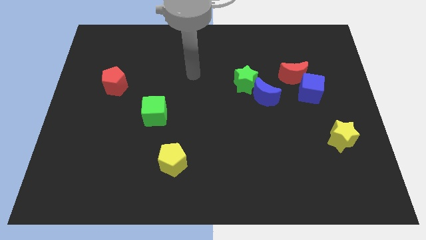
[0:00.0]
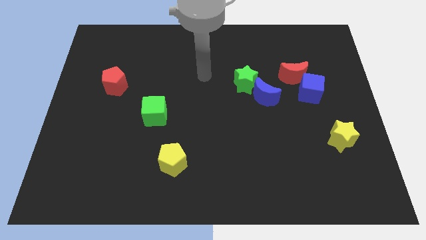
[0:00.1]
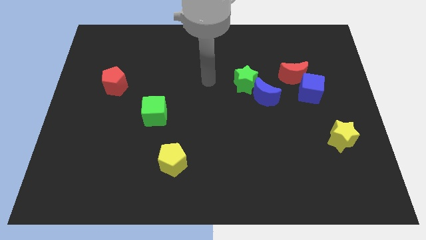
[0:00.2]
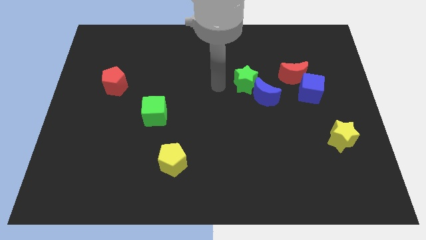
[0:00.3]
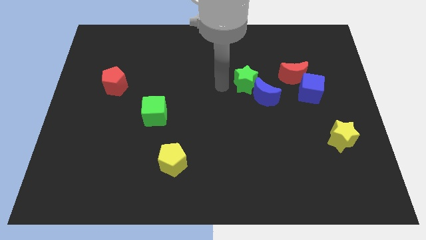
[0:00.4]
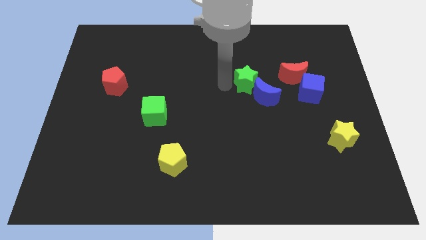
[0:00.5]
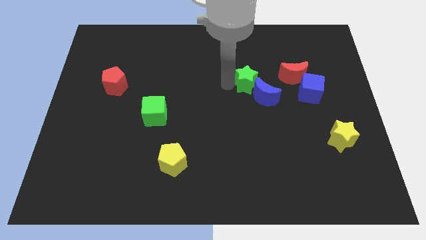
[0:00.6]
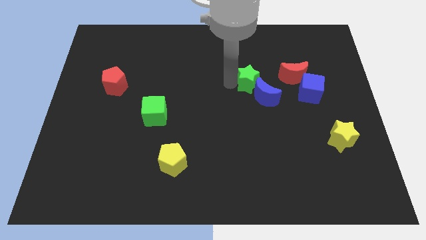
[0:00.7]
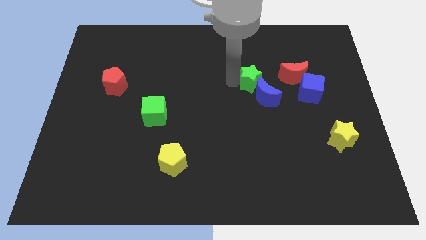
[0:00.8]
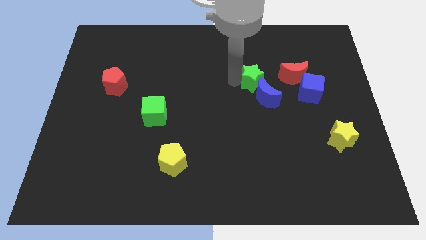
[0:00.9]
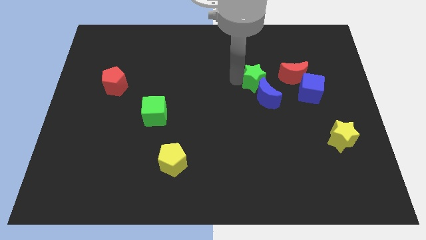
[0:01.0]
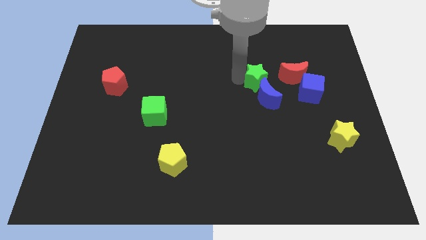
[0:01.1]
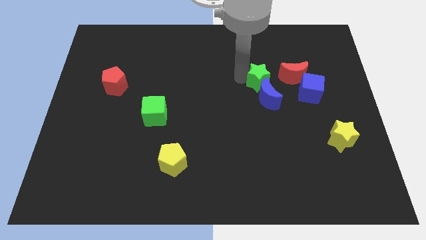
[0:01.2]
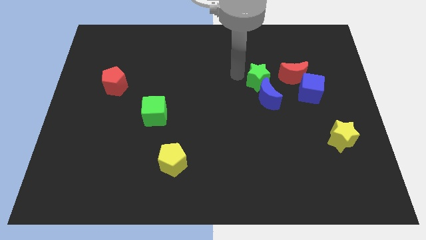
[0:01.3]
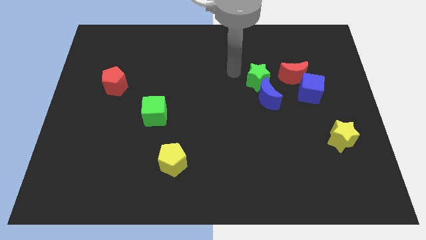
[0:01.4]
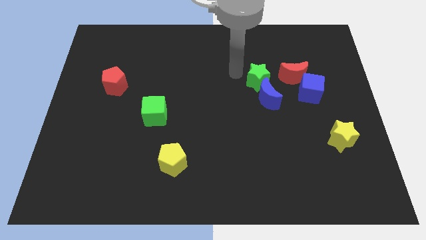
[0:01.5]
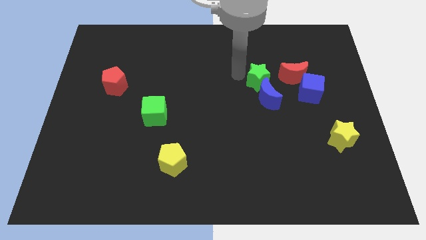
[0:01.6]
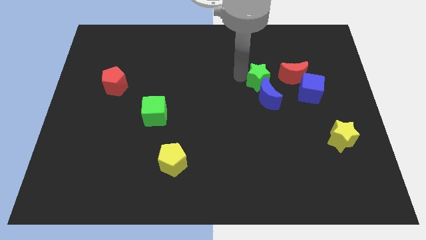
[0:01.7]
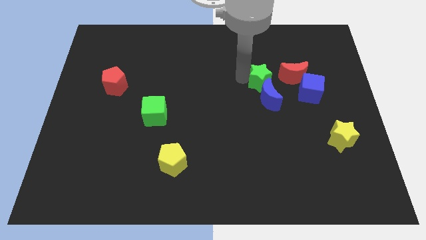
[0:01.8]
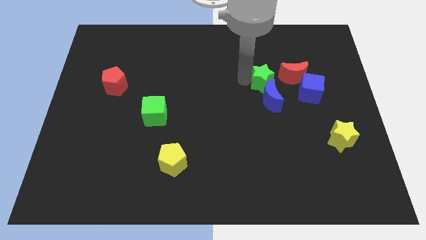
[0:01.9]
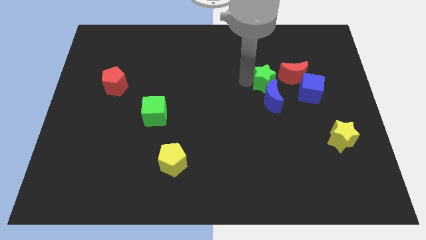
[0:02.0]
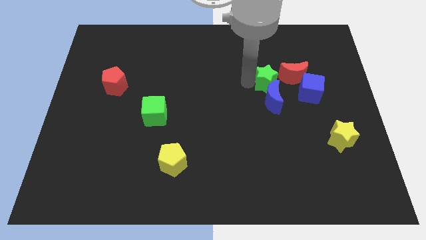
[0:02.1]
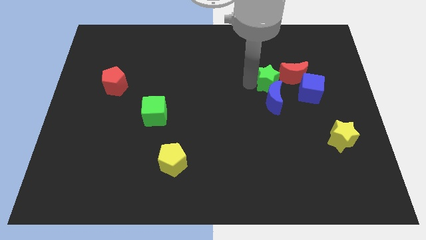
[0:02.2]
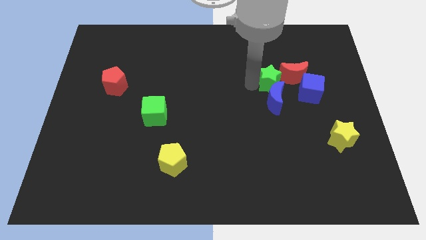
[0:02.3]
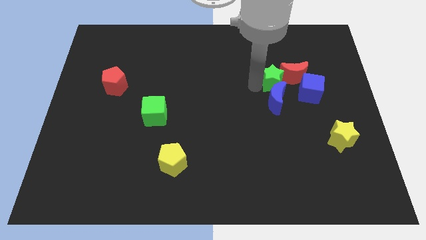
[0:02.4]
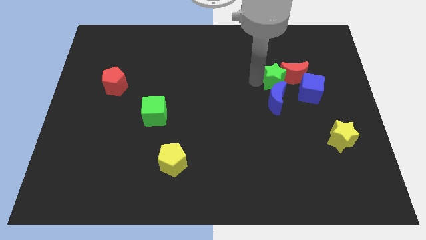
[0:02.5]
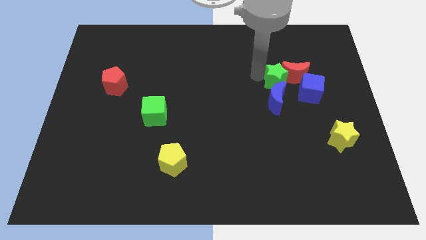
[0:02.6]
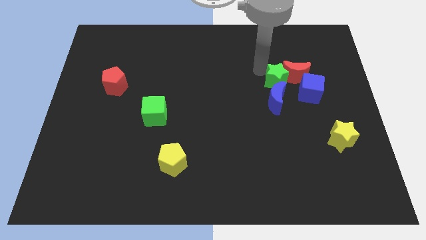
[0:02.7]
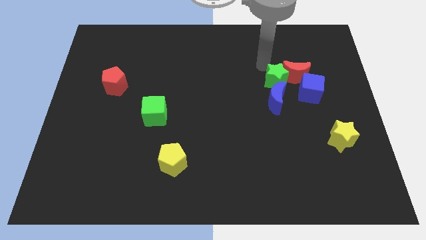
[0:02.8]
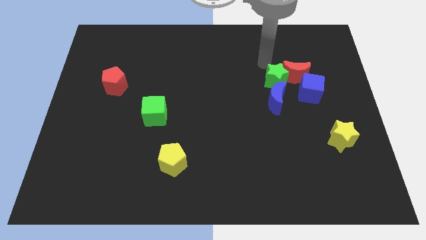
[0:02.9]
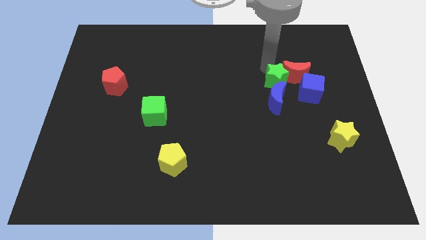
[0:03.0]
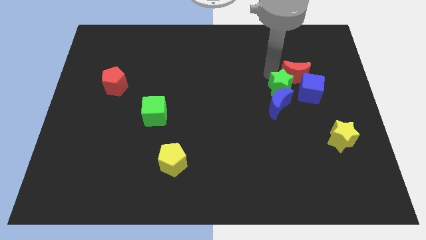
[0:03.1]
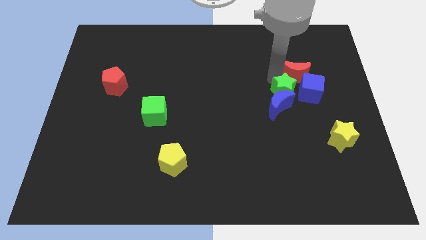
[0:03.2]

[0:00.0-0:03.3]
slide the green star downwards and to the right a bit

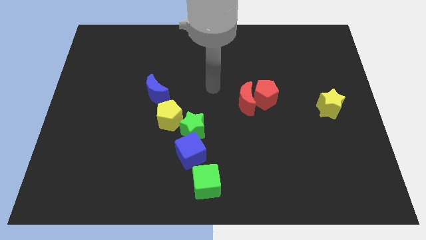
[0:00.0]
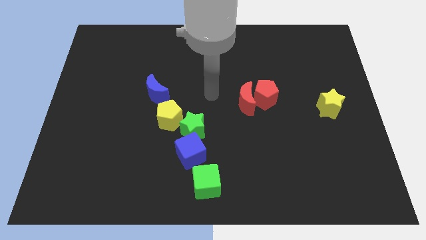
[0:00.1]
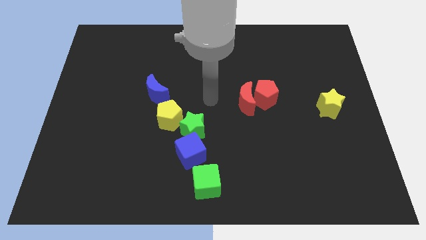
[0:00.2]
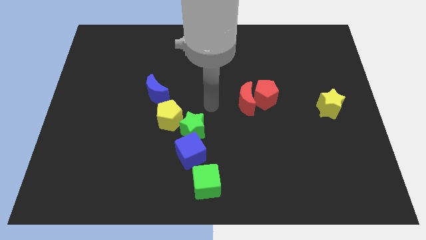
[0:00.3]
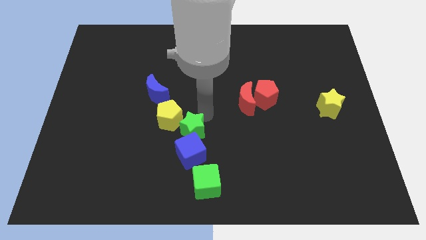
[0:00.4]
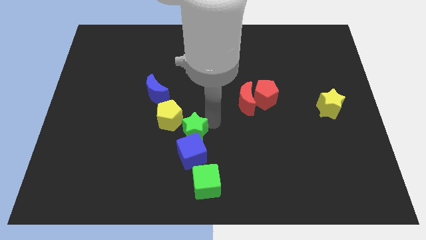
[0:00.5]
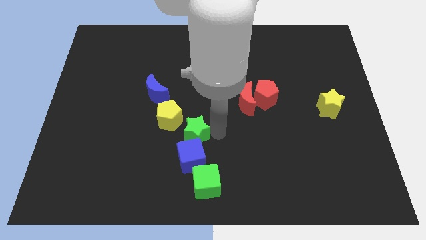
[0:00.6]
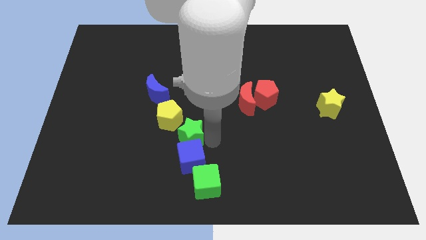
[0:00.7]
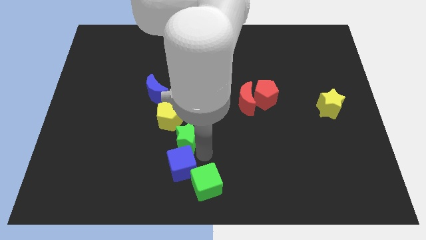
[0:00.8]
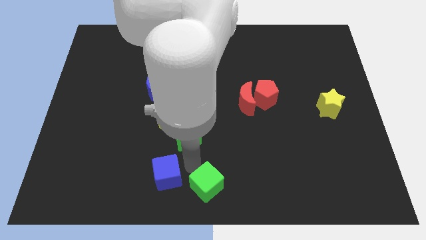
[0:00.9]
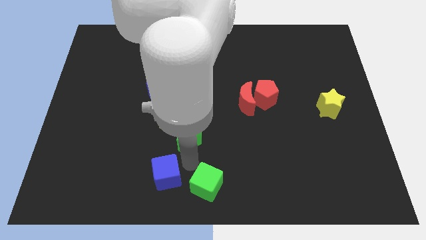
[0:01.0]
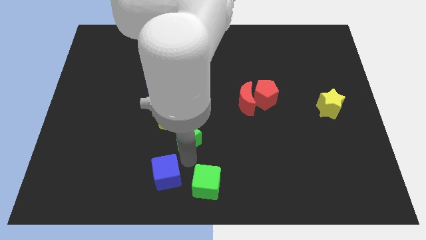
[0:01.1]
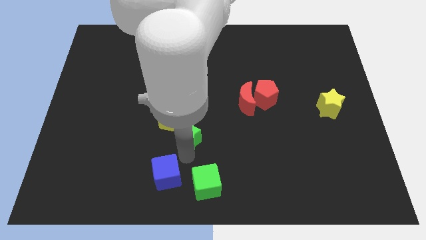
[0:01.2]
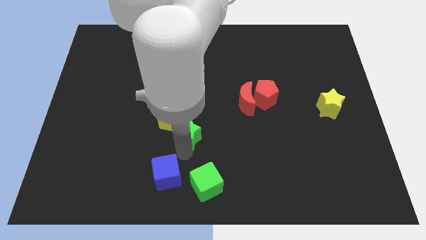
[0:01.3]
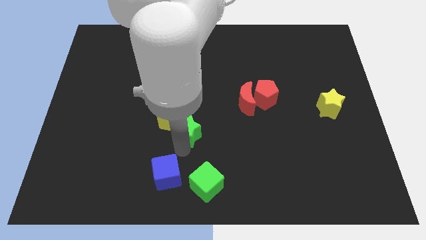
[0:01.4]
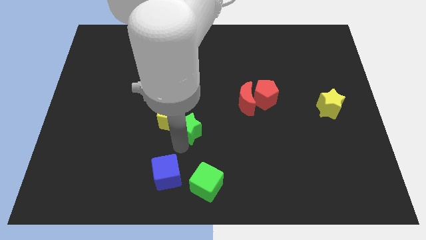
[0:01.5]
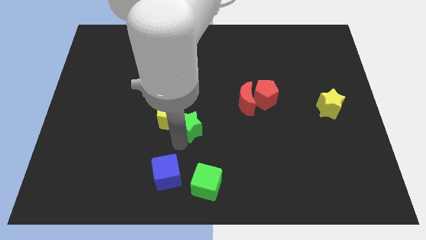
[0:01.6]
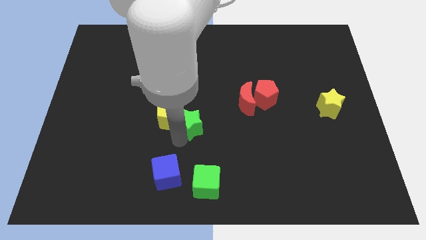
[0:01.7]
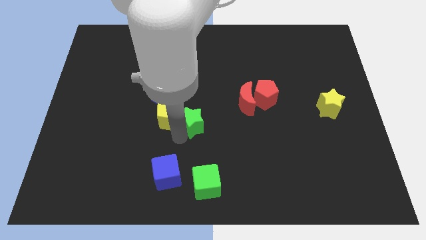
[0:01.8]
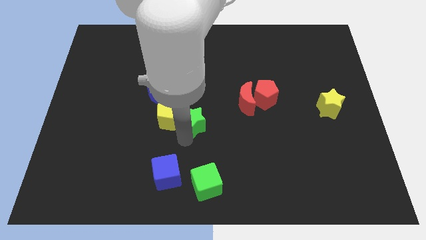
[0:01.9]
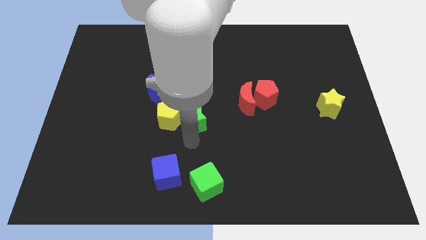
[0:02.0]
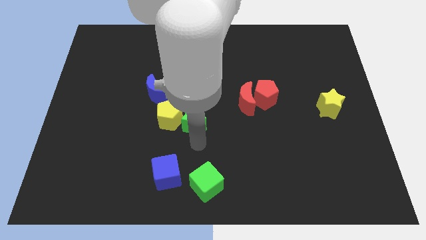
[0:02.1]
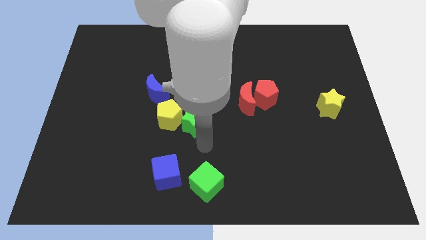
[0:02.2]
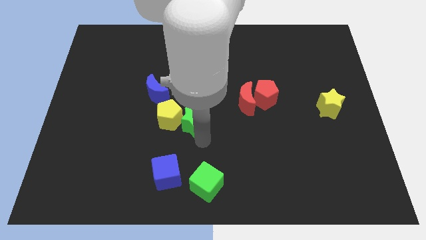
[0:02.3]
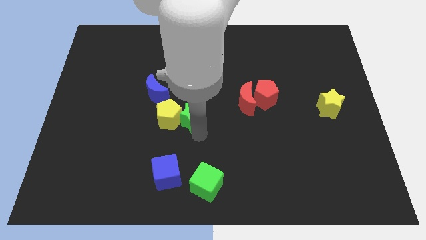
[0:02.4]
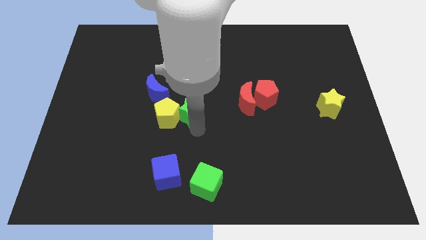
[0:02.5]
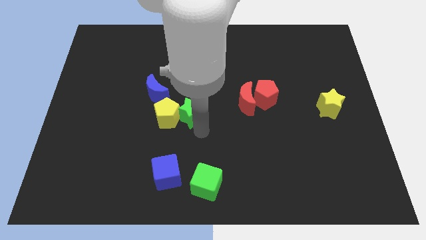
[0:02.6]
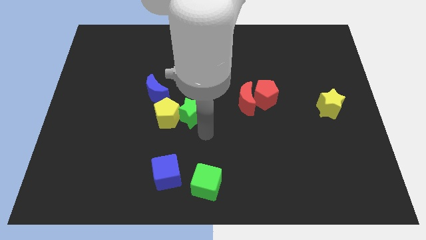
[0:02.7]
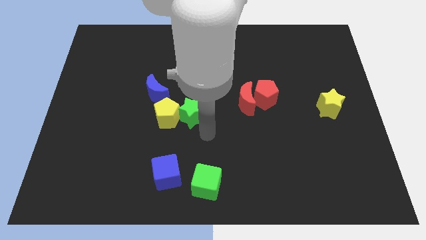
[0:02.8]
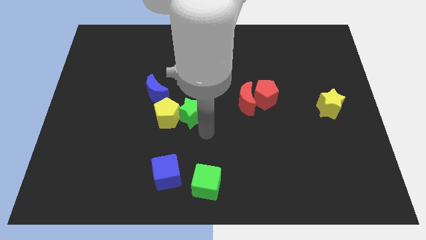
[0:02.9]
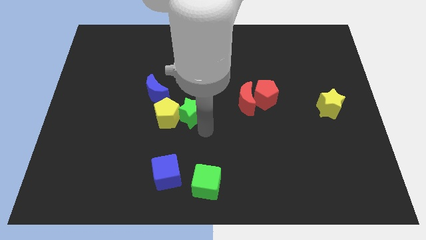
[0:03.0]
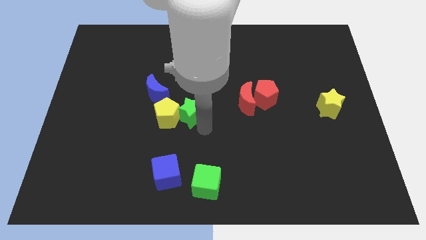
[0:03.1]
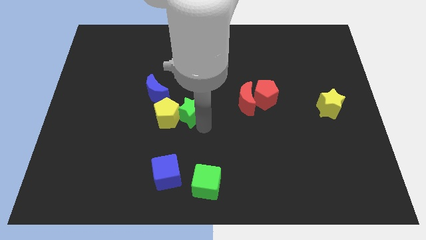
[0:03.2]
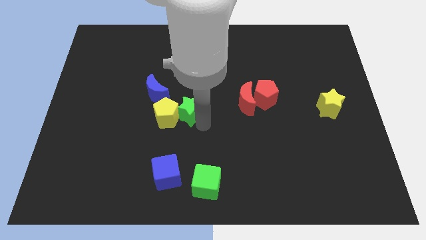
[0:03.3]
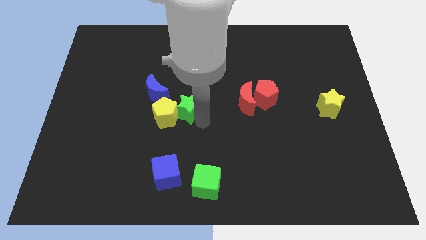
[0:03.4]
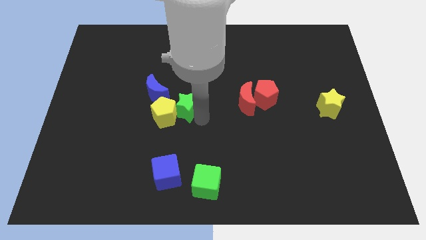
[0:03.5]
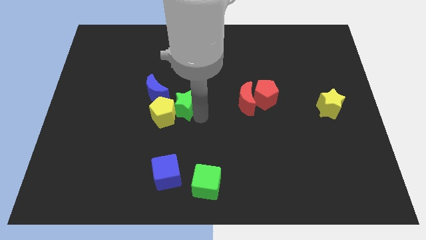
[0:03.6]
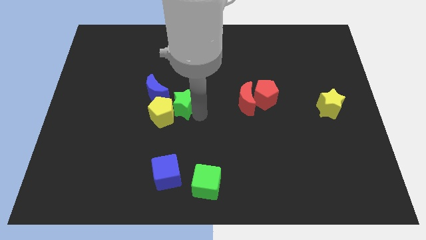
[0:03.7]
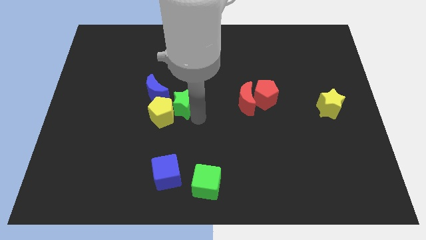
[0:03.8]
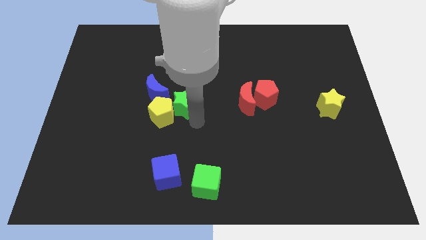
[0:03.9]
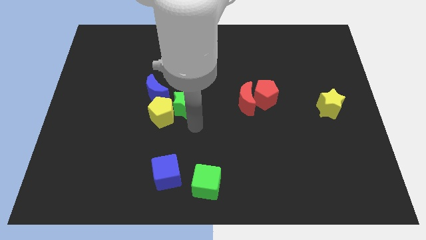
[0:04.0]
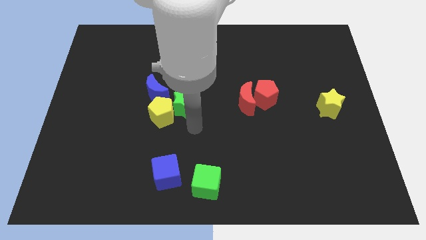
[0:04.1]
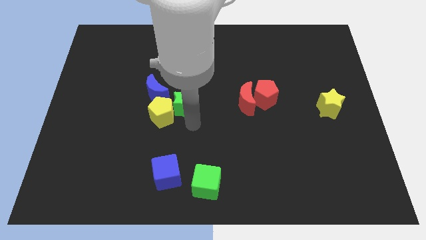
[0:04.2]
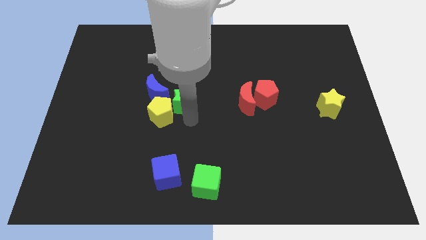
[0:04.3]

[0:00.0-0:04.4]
slightly move the green star diagonally upwards and to the left
